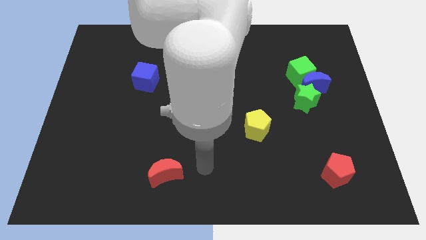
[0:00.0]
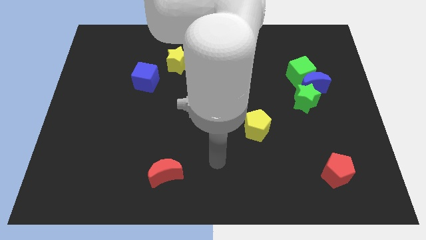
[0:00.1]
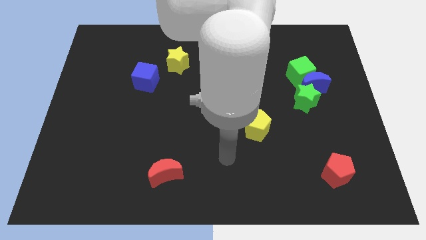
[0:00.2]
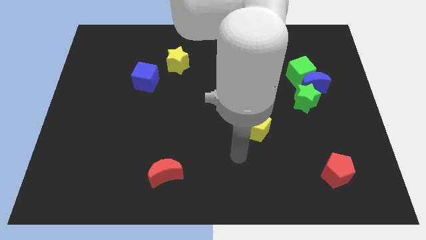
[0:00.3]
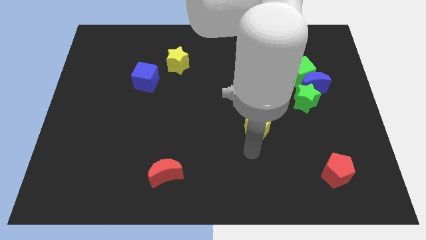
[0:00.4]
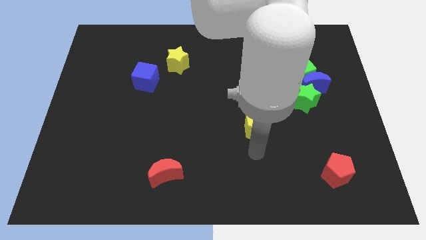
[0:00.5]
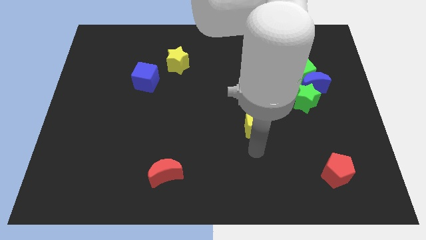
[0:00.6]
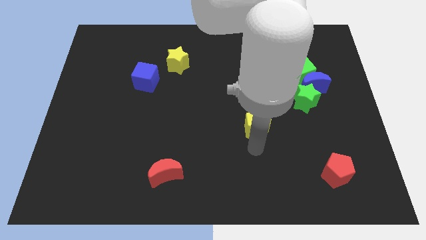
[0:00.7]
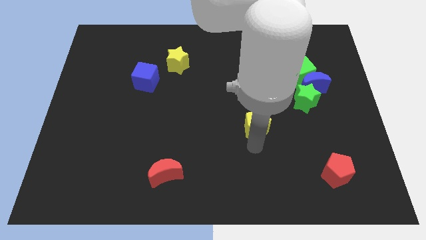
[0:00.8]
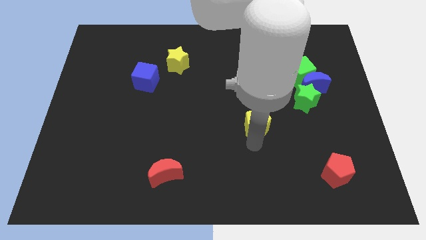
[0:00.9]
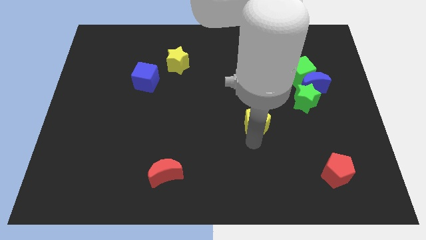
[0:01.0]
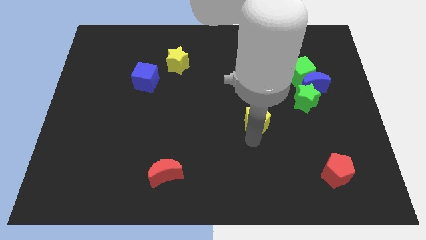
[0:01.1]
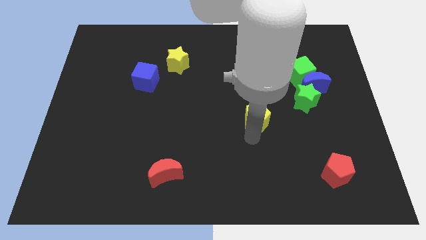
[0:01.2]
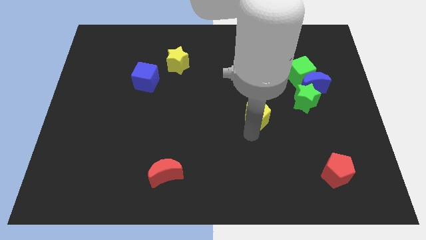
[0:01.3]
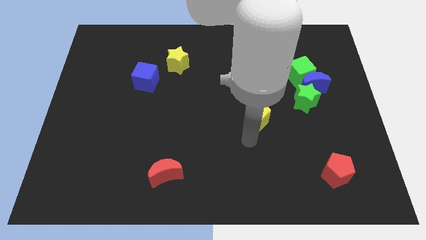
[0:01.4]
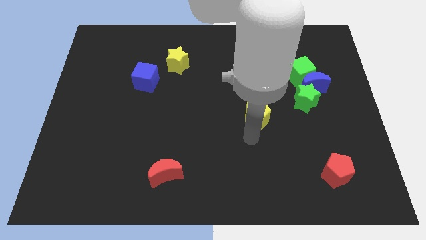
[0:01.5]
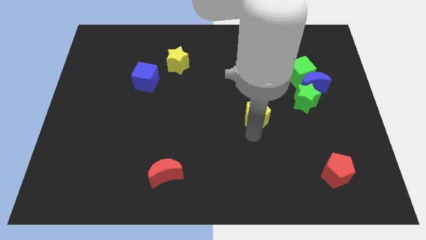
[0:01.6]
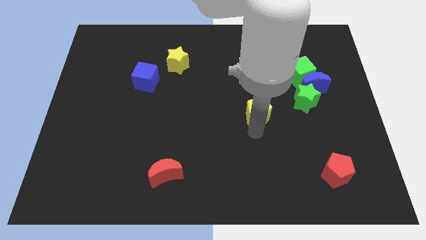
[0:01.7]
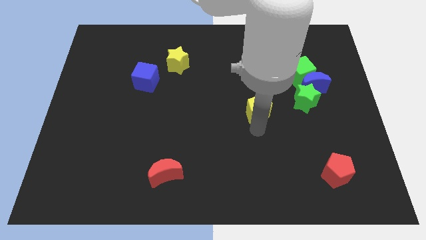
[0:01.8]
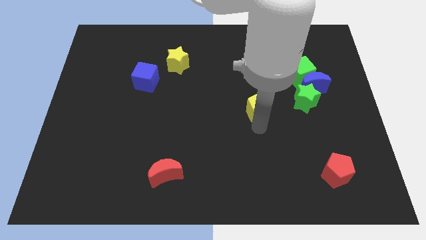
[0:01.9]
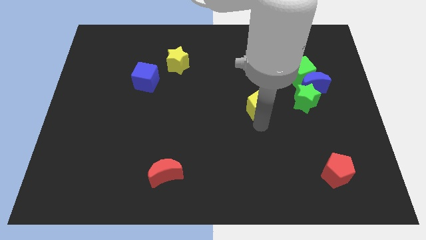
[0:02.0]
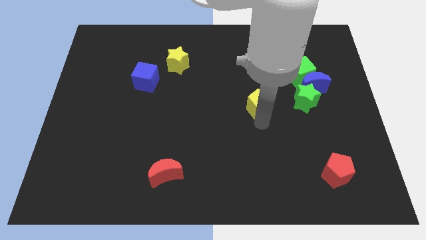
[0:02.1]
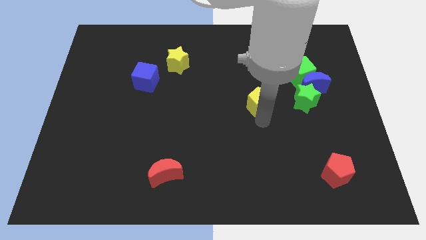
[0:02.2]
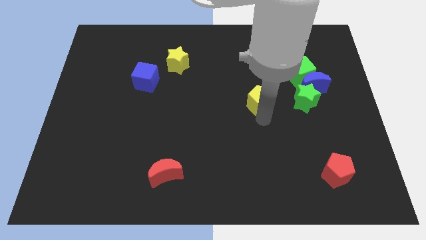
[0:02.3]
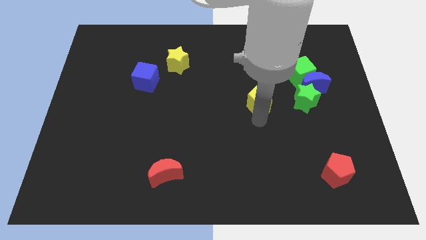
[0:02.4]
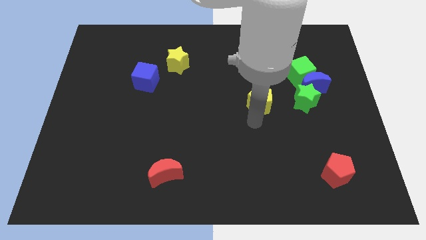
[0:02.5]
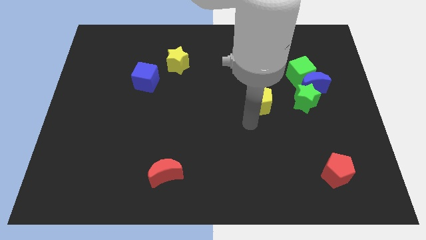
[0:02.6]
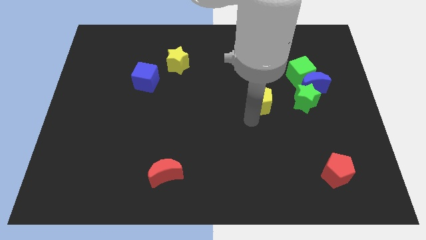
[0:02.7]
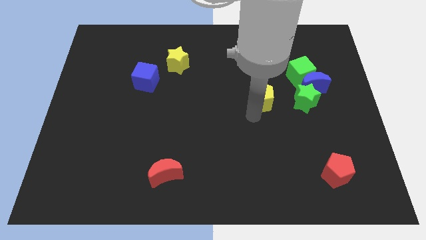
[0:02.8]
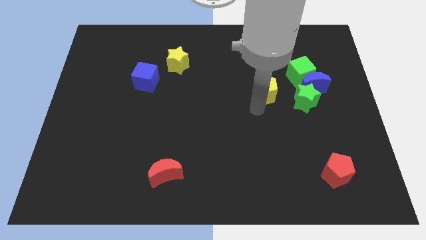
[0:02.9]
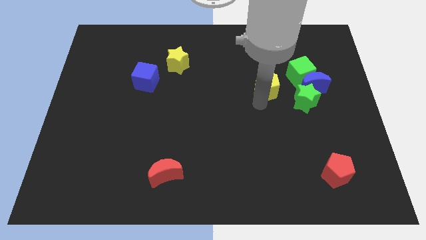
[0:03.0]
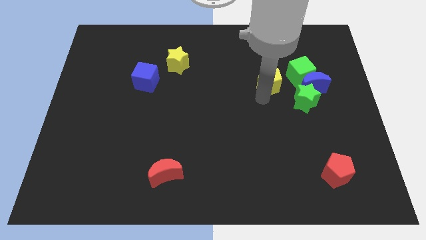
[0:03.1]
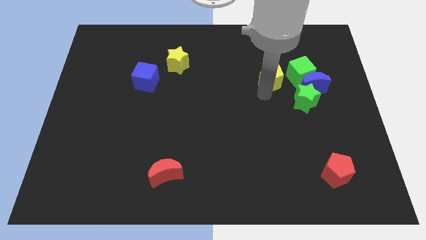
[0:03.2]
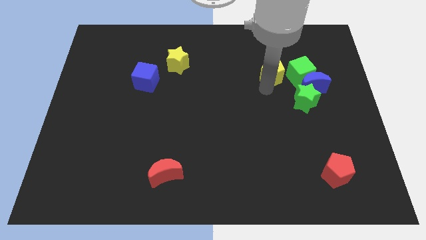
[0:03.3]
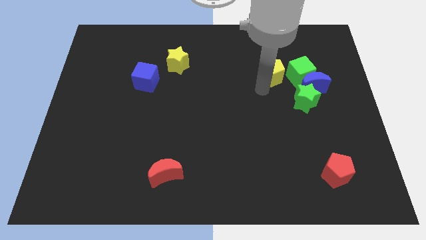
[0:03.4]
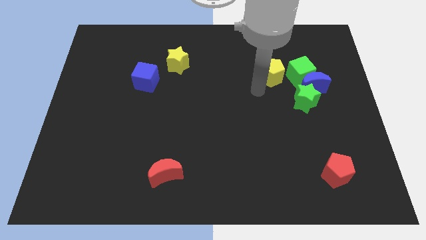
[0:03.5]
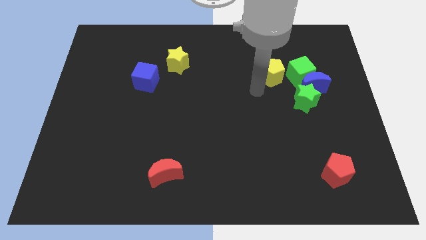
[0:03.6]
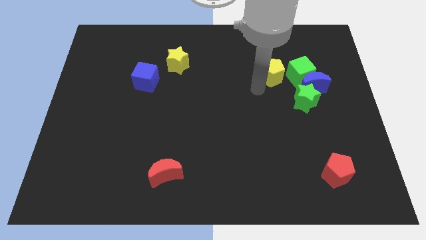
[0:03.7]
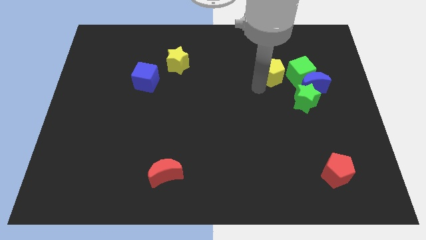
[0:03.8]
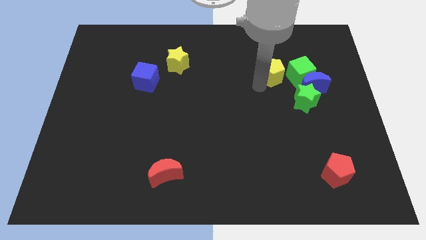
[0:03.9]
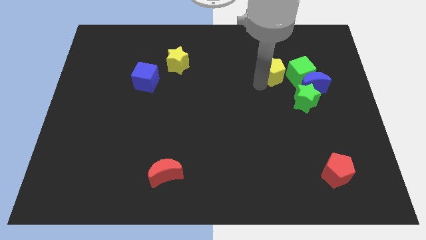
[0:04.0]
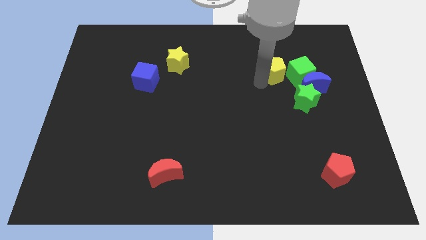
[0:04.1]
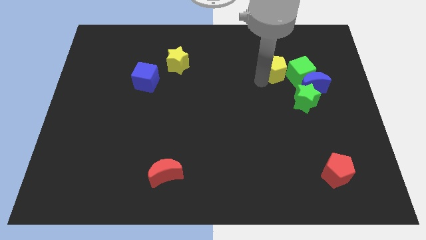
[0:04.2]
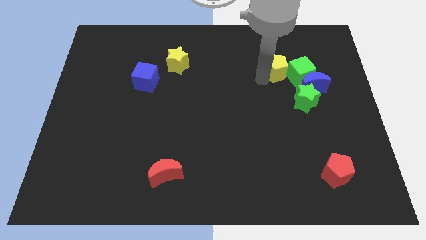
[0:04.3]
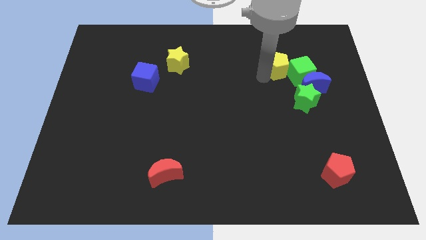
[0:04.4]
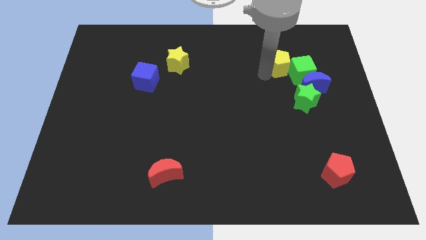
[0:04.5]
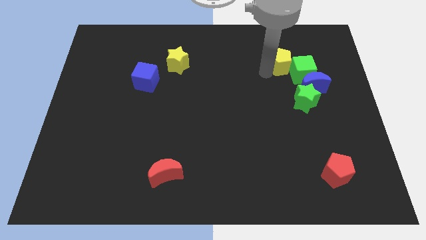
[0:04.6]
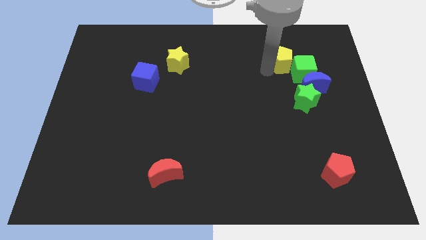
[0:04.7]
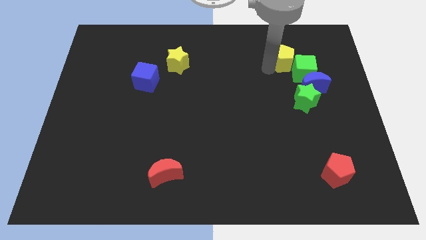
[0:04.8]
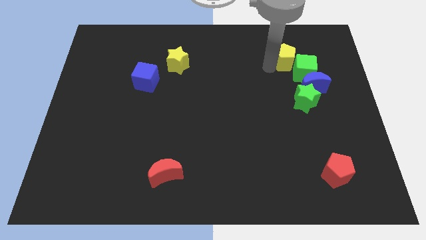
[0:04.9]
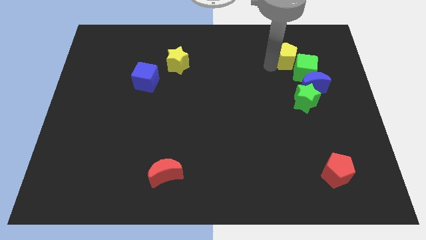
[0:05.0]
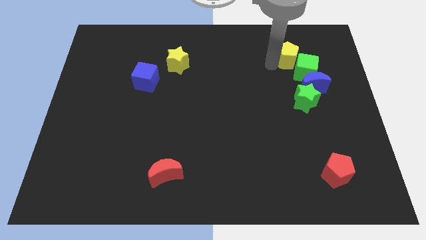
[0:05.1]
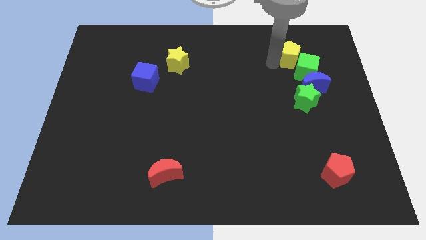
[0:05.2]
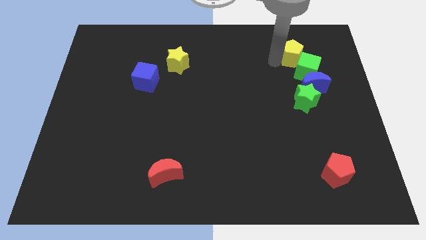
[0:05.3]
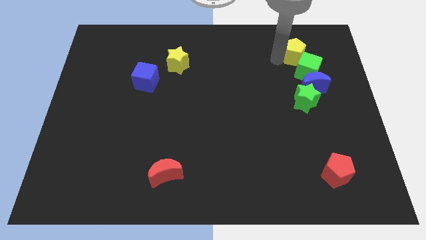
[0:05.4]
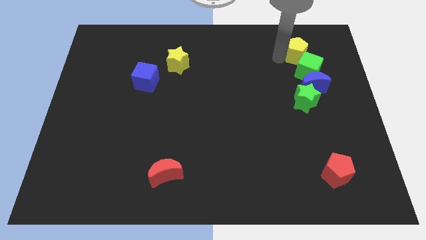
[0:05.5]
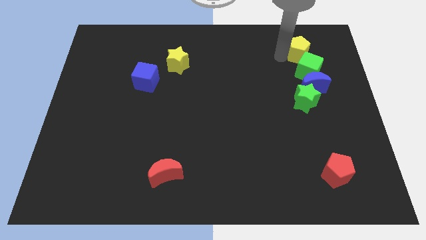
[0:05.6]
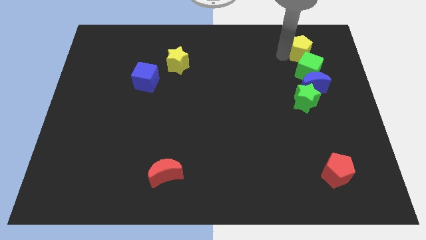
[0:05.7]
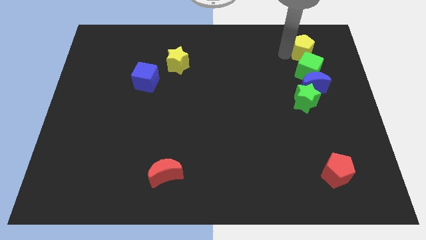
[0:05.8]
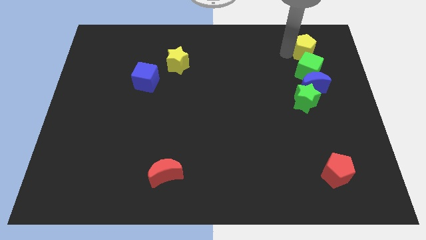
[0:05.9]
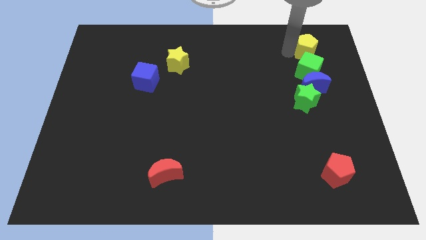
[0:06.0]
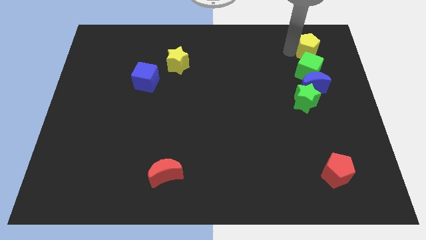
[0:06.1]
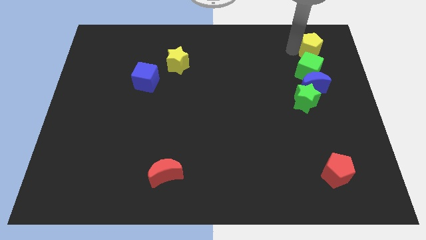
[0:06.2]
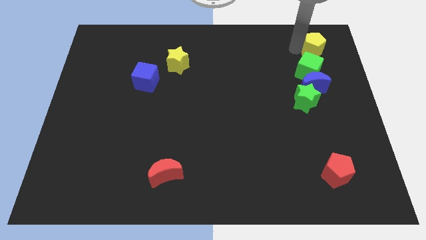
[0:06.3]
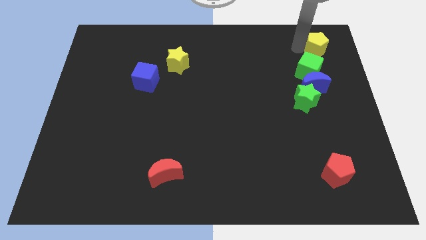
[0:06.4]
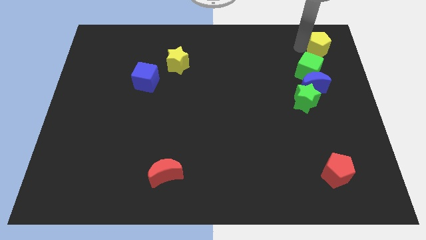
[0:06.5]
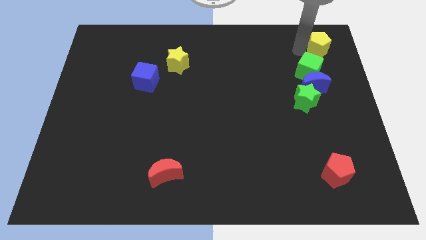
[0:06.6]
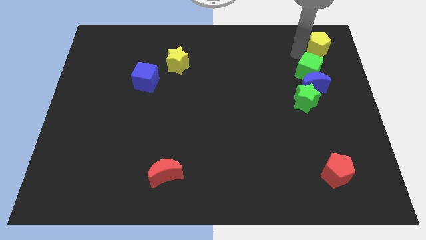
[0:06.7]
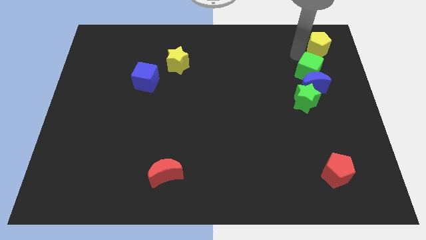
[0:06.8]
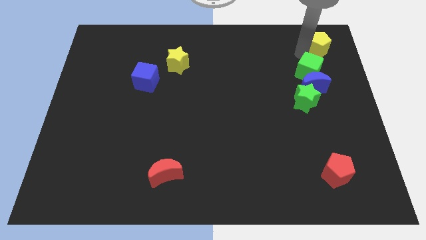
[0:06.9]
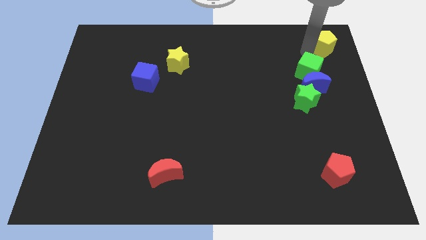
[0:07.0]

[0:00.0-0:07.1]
slide the yellow pentagon to the top right
